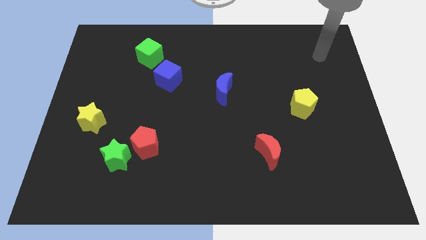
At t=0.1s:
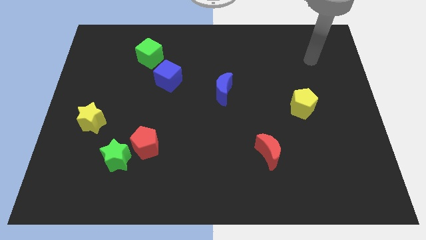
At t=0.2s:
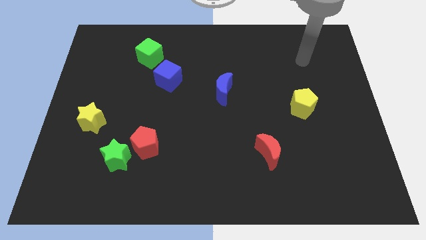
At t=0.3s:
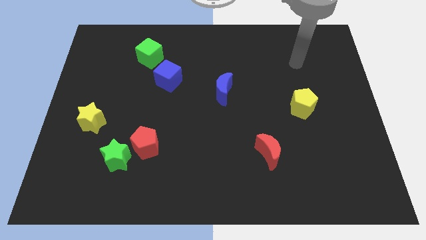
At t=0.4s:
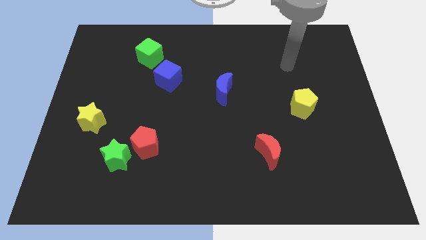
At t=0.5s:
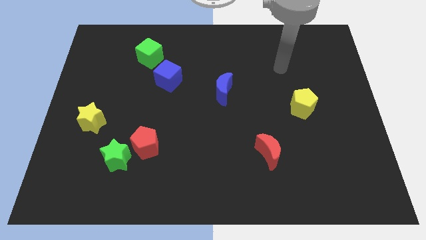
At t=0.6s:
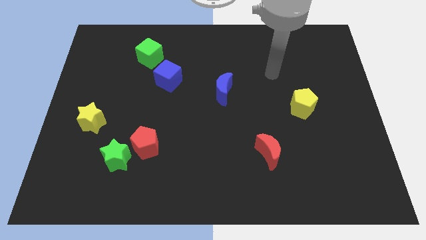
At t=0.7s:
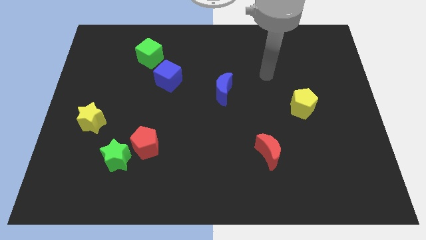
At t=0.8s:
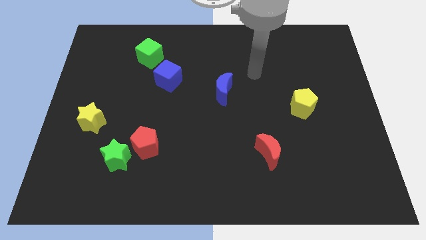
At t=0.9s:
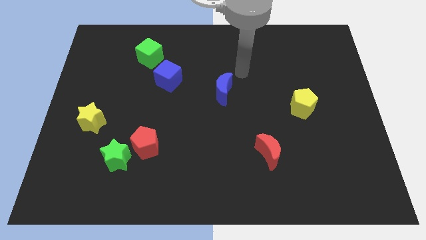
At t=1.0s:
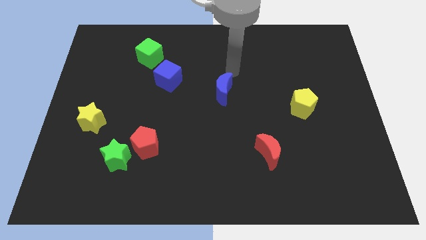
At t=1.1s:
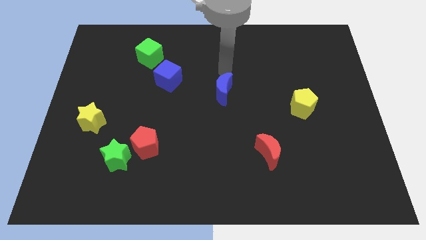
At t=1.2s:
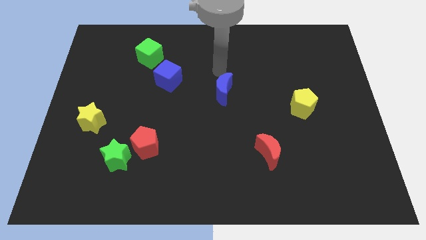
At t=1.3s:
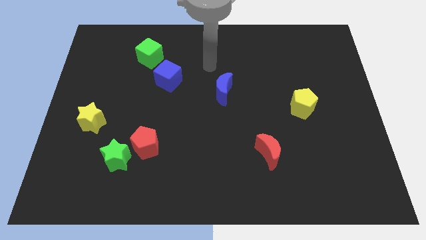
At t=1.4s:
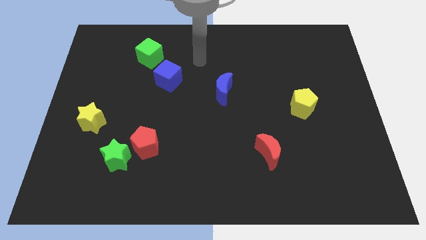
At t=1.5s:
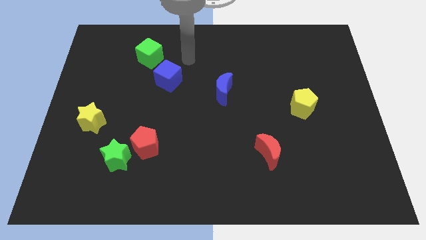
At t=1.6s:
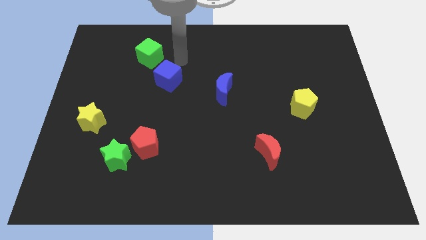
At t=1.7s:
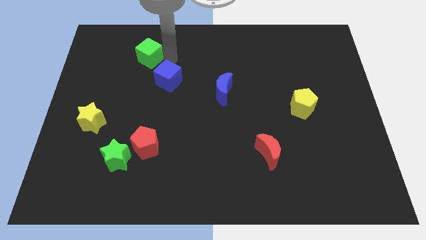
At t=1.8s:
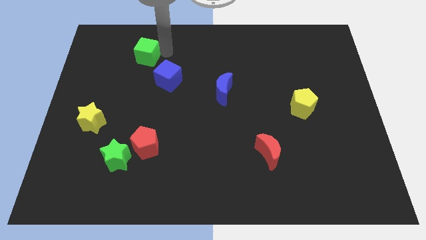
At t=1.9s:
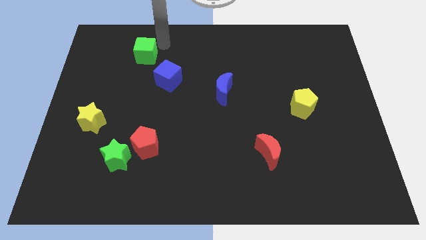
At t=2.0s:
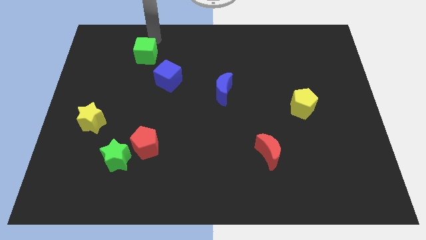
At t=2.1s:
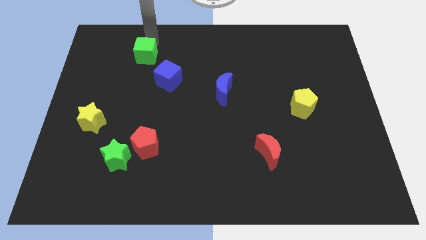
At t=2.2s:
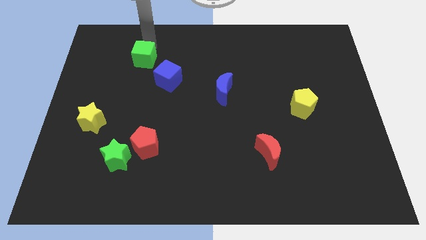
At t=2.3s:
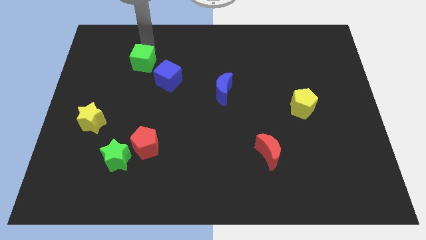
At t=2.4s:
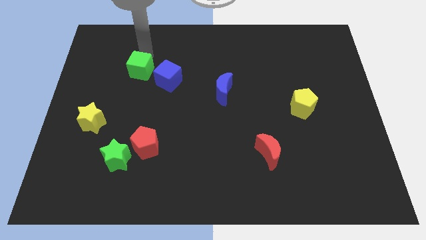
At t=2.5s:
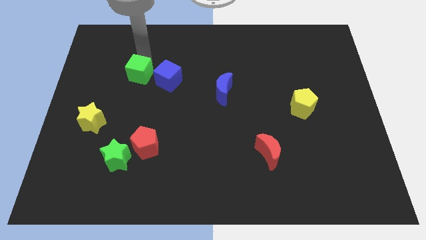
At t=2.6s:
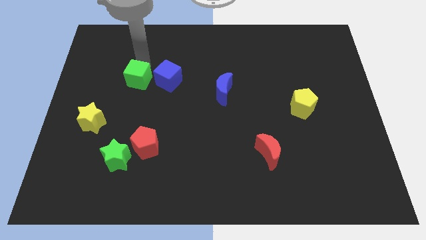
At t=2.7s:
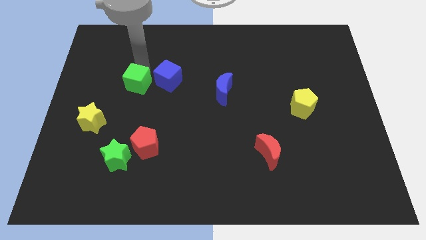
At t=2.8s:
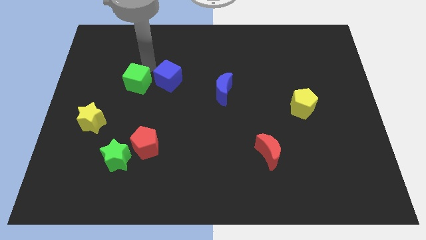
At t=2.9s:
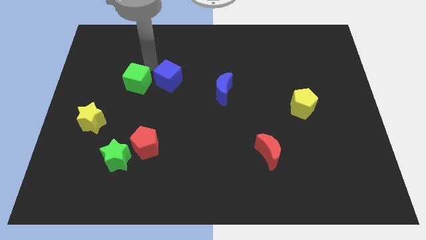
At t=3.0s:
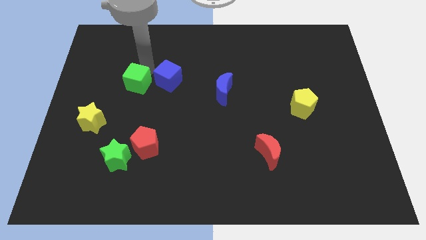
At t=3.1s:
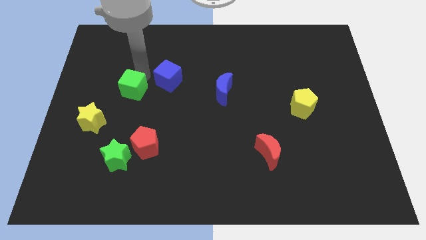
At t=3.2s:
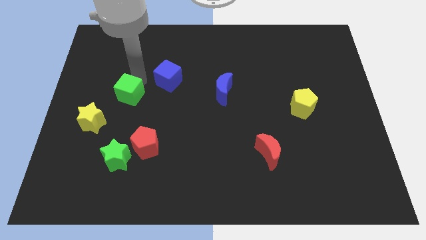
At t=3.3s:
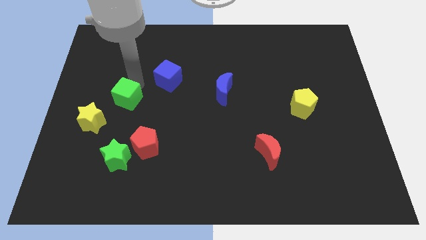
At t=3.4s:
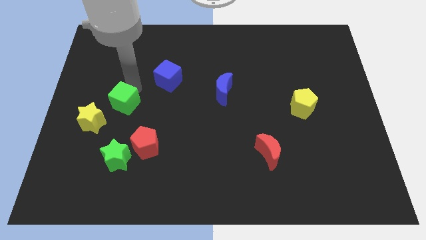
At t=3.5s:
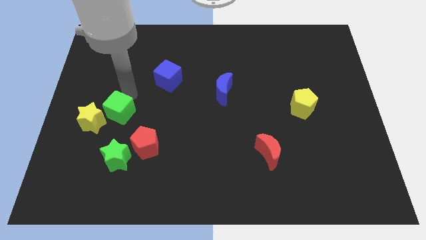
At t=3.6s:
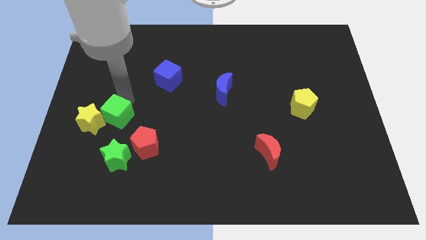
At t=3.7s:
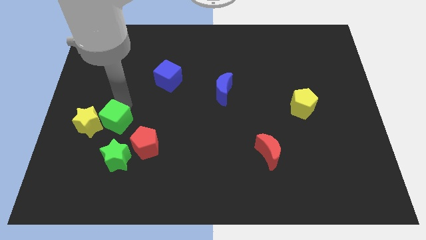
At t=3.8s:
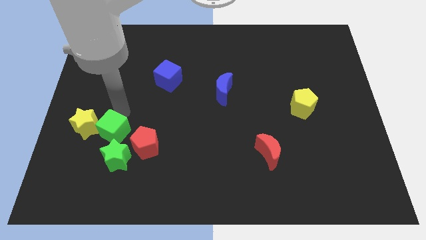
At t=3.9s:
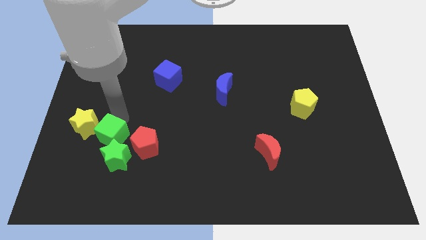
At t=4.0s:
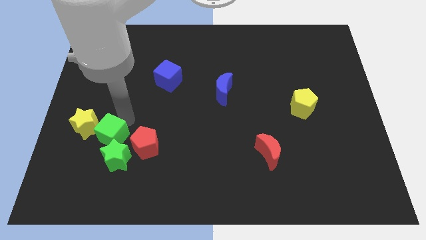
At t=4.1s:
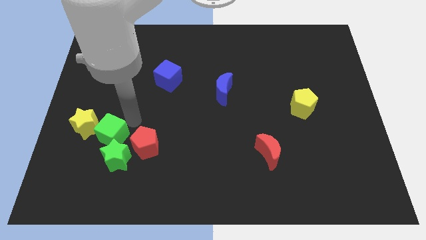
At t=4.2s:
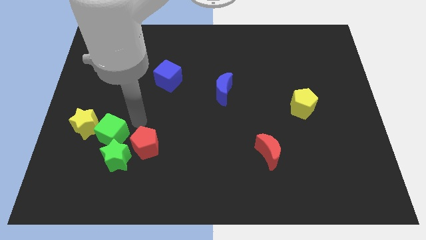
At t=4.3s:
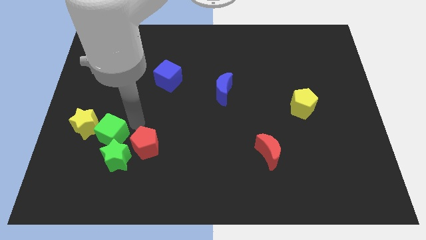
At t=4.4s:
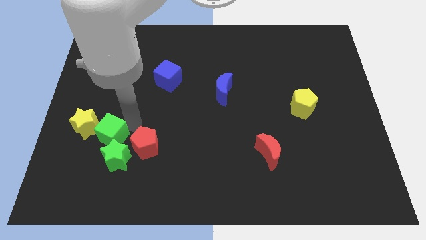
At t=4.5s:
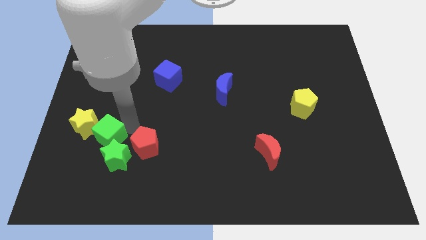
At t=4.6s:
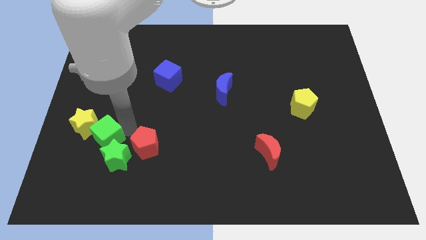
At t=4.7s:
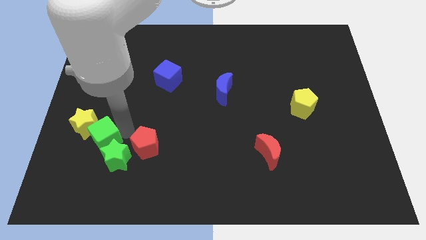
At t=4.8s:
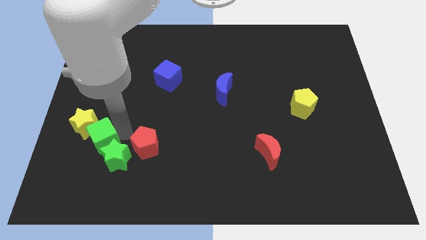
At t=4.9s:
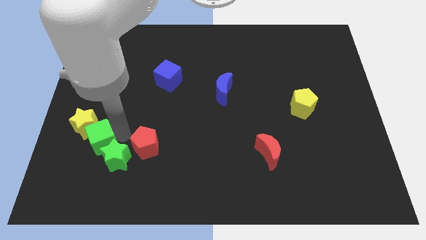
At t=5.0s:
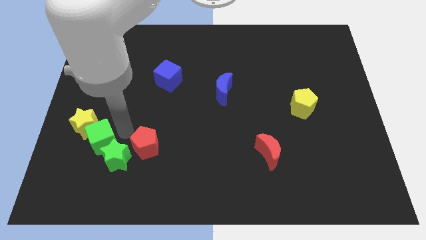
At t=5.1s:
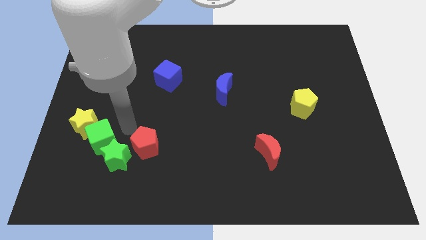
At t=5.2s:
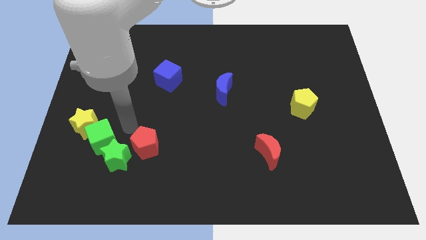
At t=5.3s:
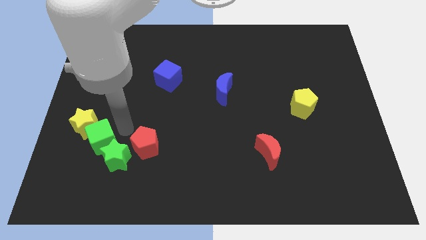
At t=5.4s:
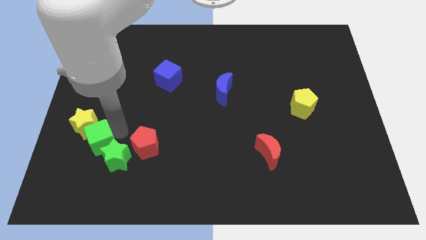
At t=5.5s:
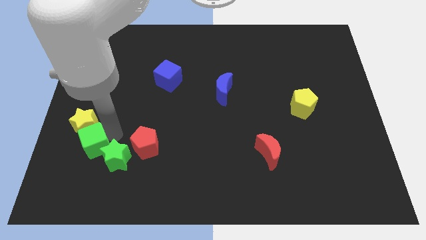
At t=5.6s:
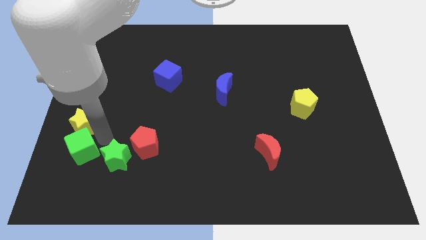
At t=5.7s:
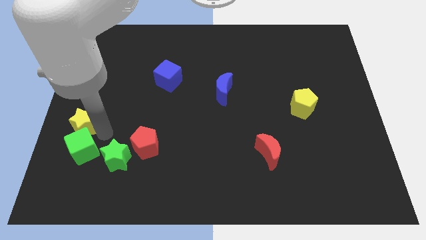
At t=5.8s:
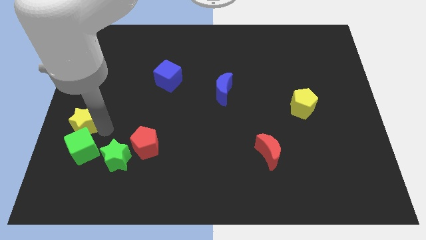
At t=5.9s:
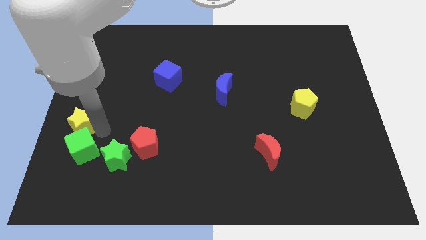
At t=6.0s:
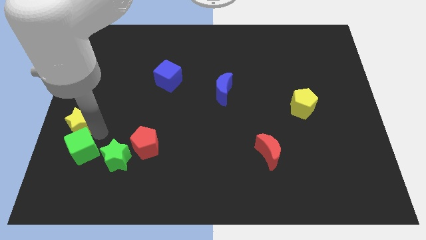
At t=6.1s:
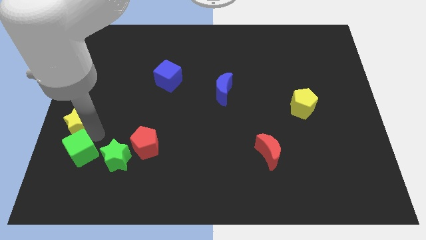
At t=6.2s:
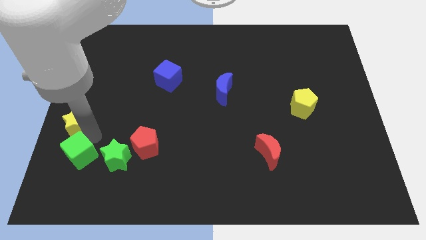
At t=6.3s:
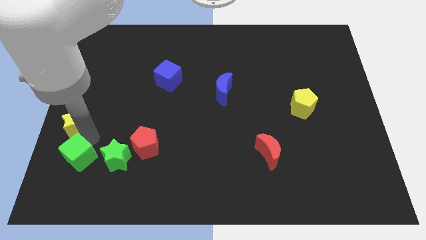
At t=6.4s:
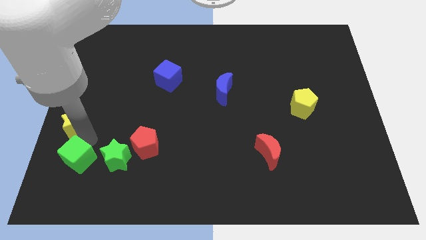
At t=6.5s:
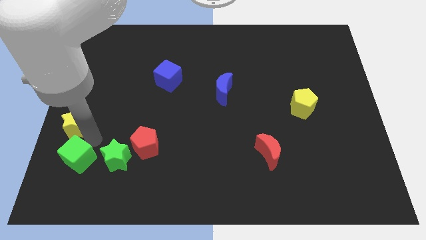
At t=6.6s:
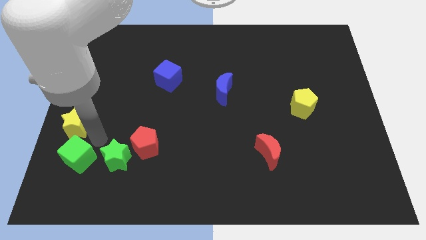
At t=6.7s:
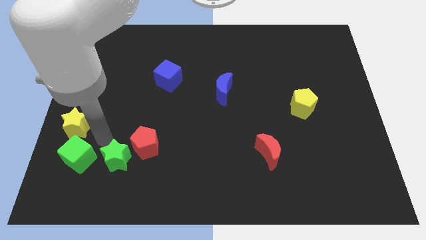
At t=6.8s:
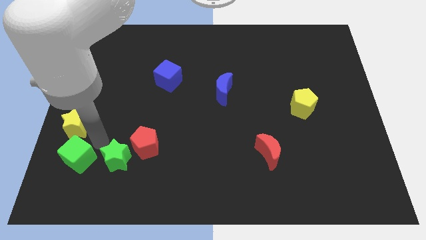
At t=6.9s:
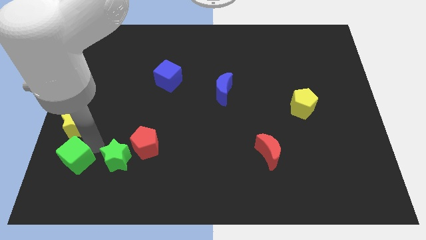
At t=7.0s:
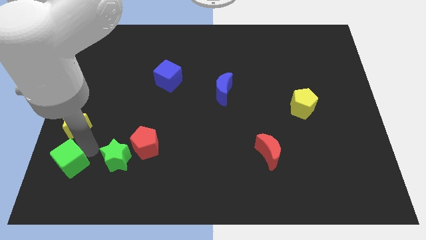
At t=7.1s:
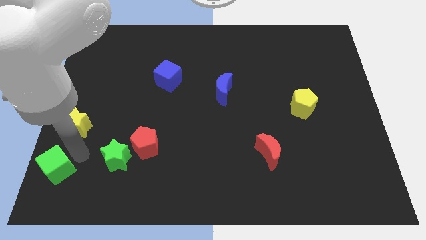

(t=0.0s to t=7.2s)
move the green cube to the bottom left corner

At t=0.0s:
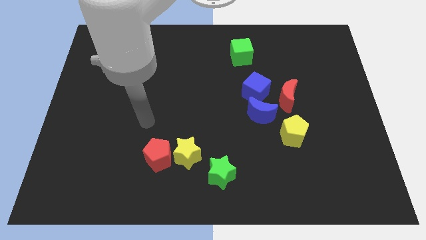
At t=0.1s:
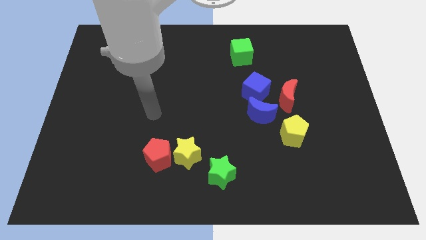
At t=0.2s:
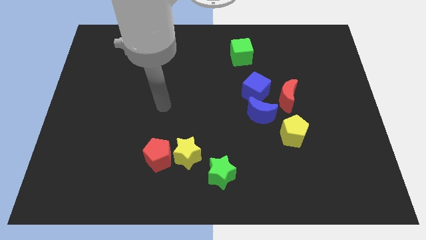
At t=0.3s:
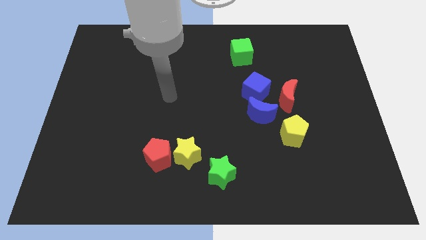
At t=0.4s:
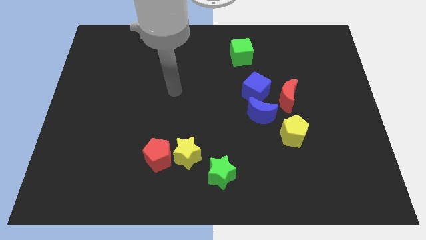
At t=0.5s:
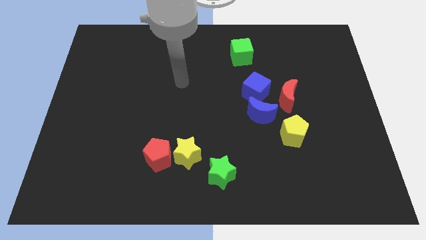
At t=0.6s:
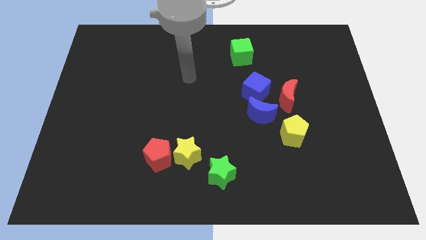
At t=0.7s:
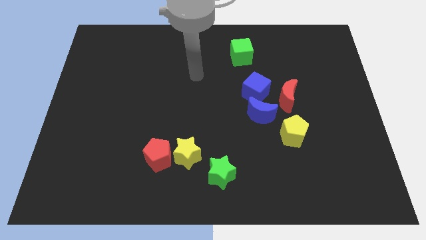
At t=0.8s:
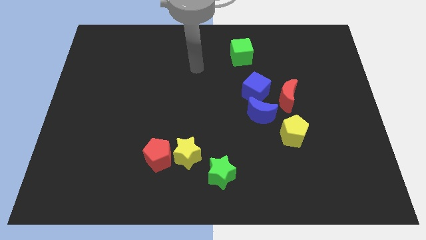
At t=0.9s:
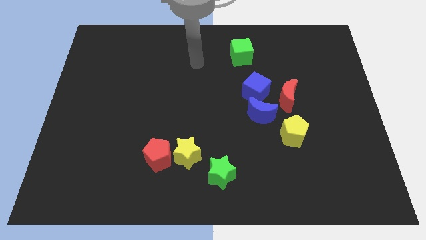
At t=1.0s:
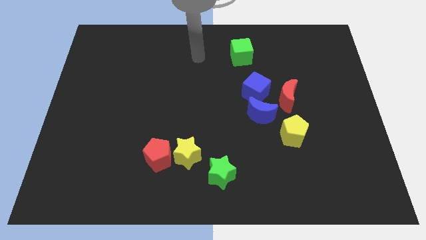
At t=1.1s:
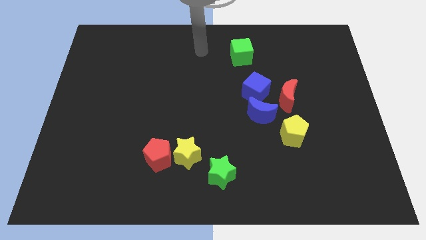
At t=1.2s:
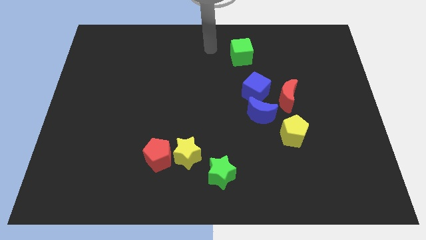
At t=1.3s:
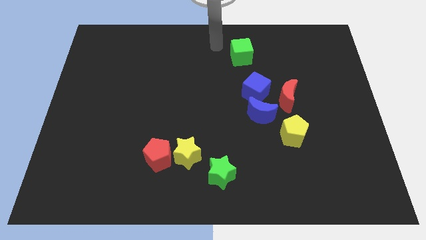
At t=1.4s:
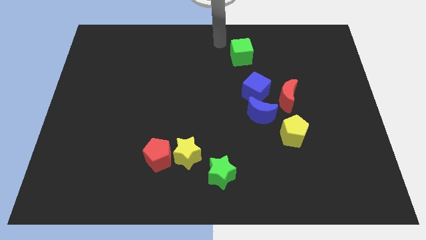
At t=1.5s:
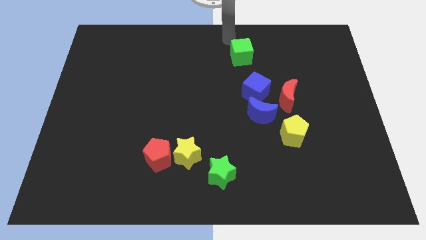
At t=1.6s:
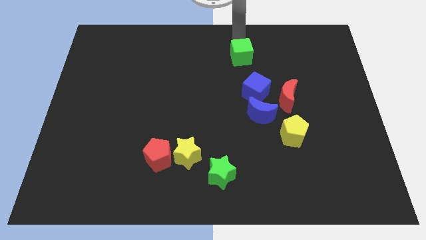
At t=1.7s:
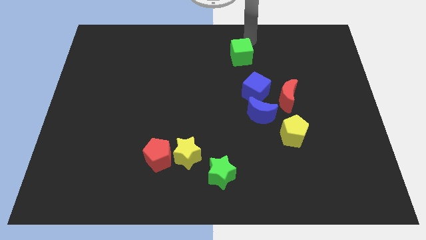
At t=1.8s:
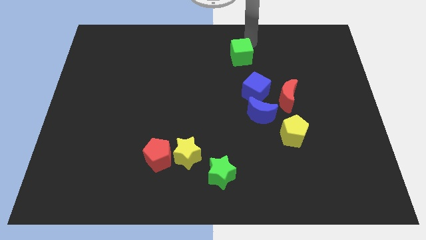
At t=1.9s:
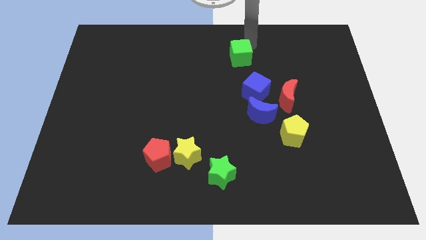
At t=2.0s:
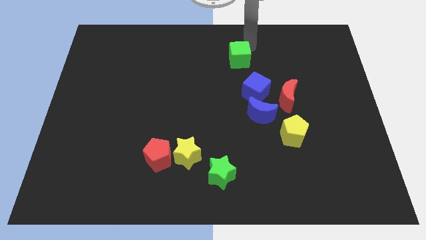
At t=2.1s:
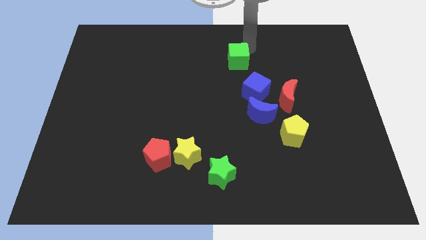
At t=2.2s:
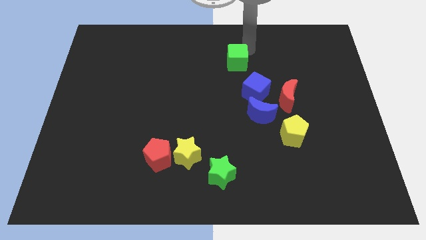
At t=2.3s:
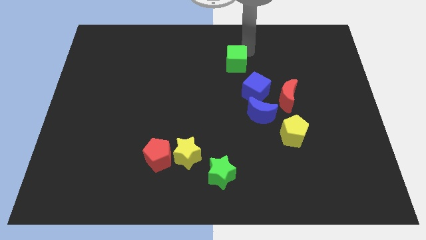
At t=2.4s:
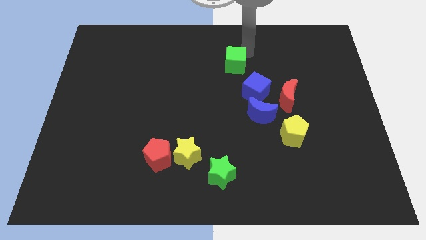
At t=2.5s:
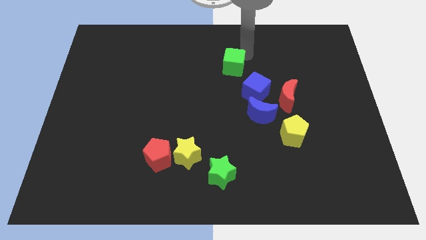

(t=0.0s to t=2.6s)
put the green cube to the middle
